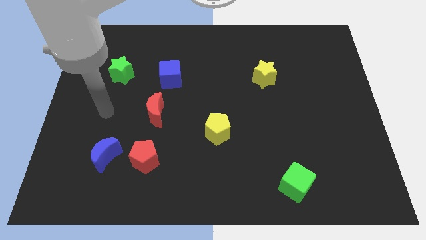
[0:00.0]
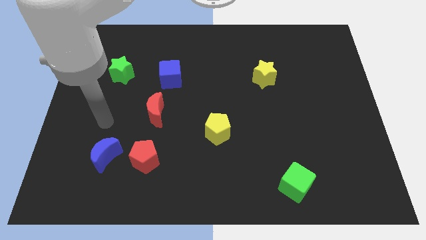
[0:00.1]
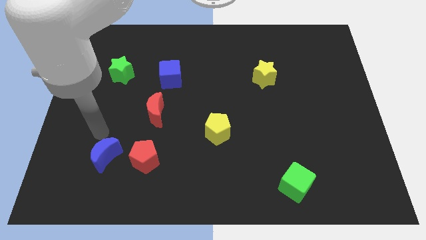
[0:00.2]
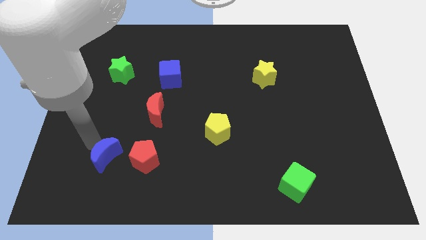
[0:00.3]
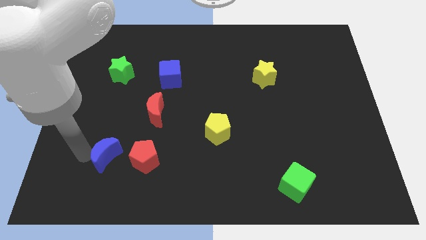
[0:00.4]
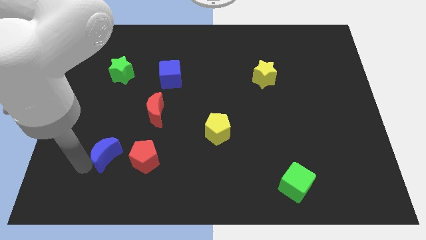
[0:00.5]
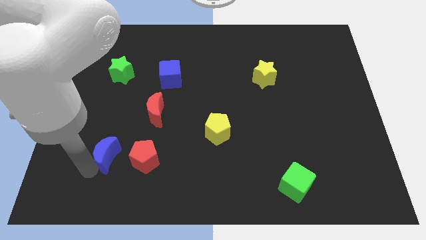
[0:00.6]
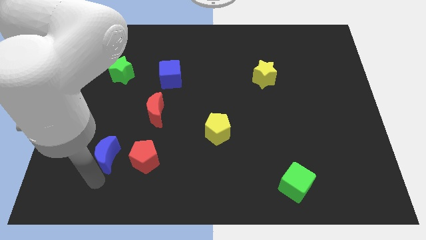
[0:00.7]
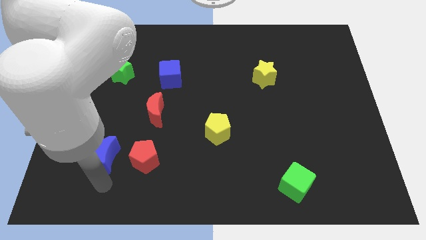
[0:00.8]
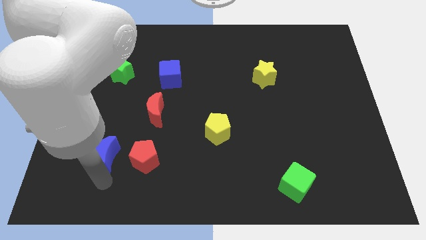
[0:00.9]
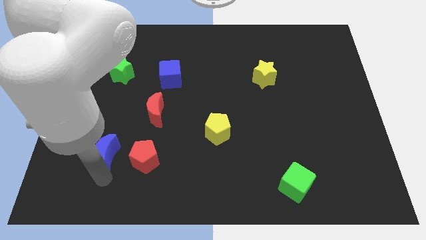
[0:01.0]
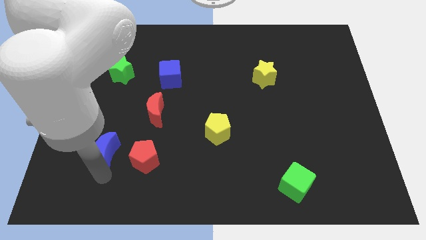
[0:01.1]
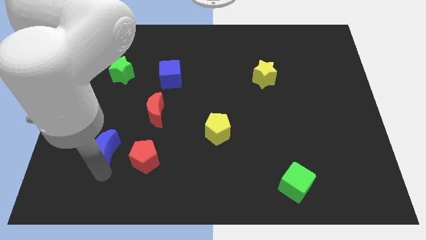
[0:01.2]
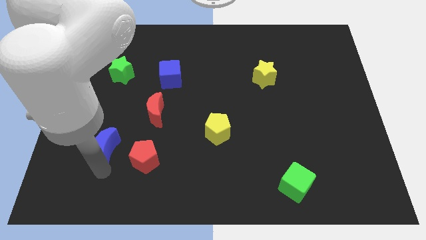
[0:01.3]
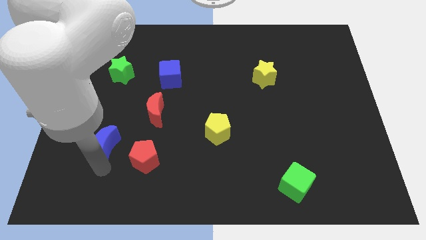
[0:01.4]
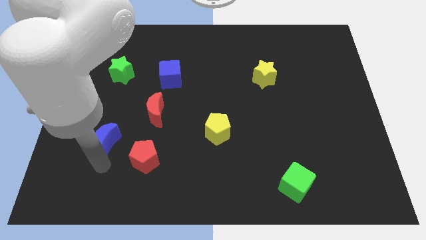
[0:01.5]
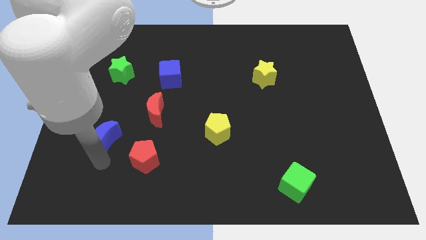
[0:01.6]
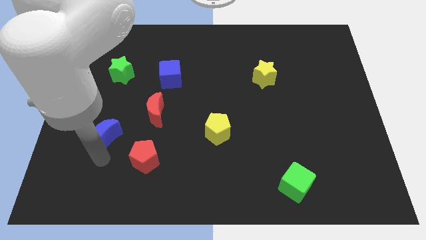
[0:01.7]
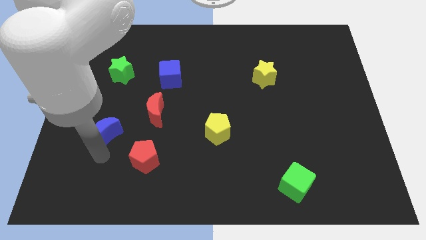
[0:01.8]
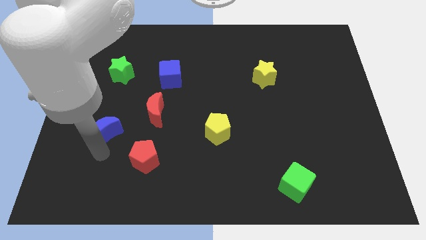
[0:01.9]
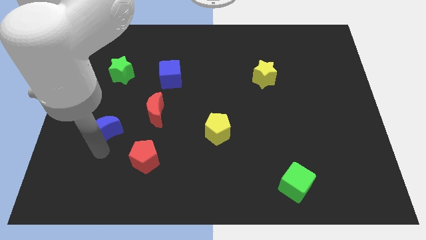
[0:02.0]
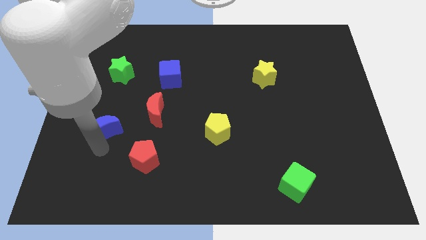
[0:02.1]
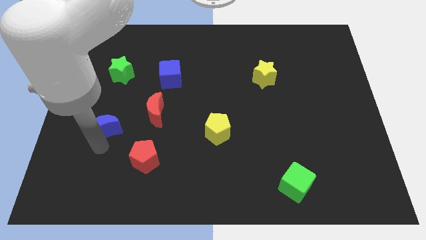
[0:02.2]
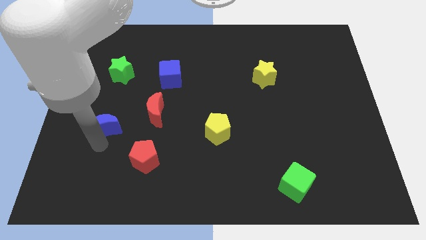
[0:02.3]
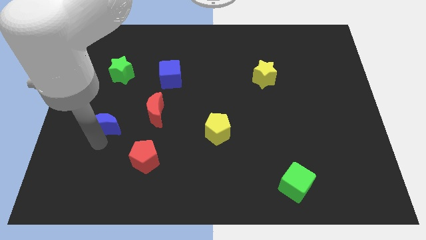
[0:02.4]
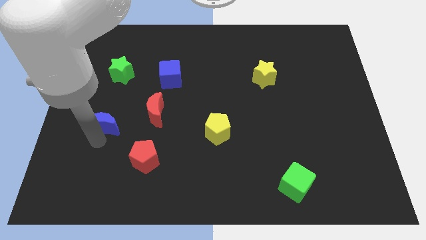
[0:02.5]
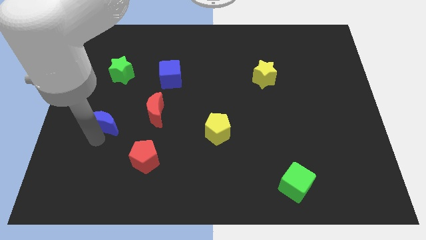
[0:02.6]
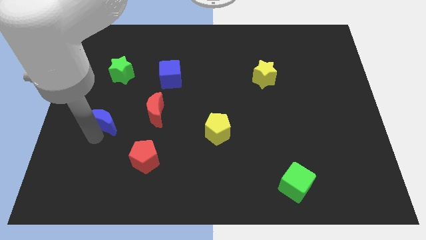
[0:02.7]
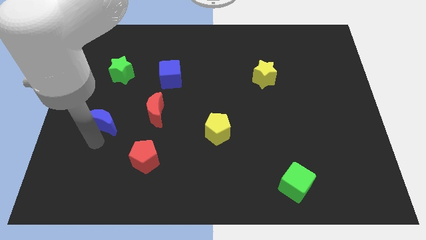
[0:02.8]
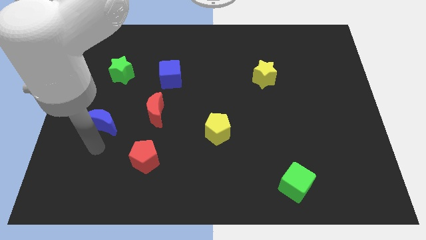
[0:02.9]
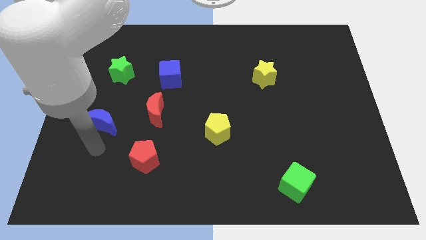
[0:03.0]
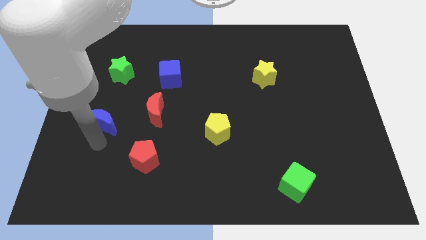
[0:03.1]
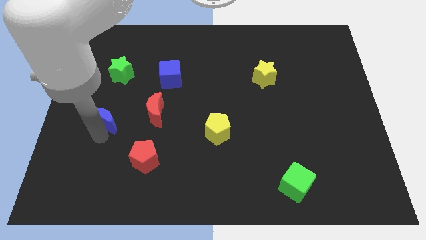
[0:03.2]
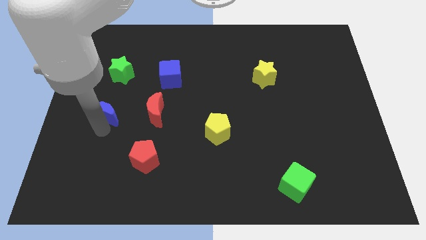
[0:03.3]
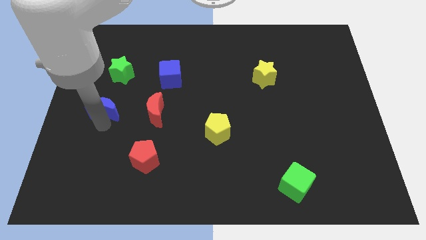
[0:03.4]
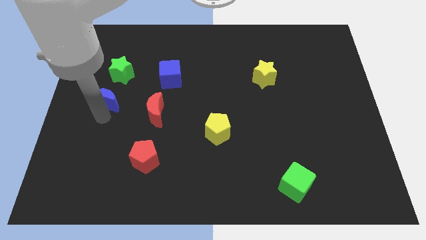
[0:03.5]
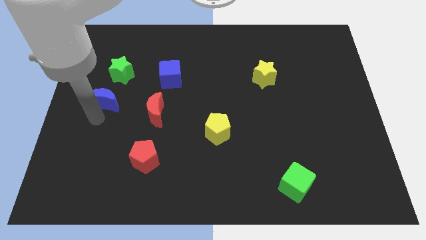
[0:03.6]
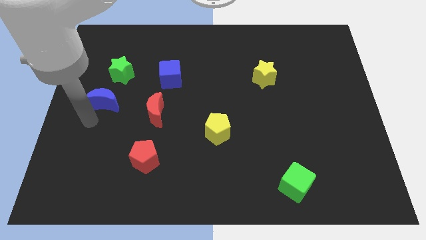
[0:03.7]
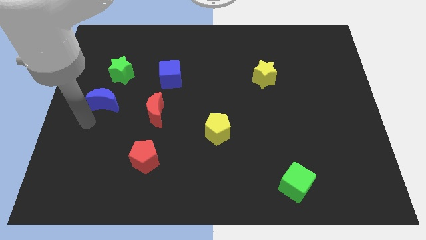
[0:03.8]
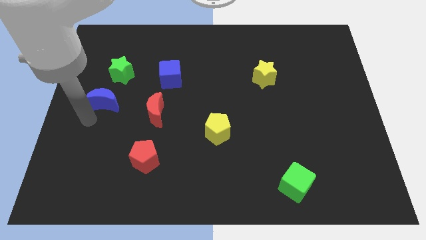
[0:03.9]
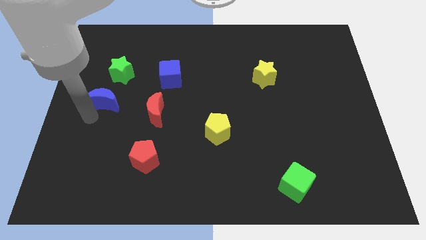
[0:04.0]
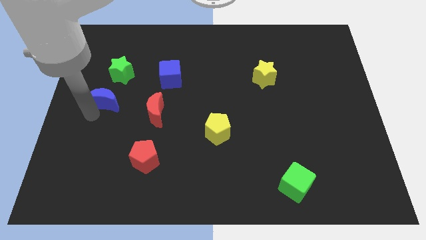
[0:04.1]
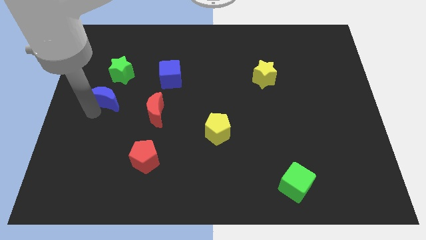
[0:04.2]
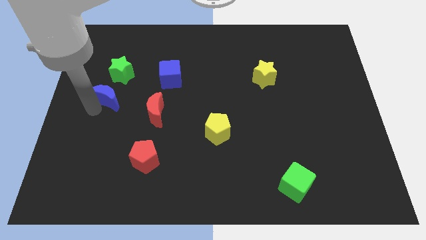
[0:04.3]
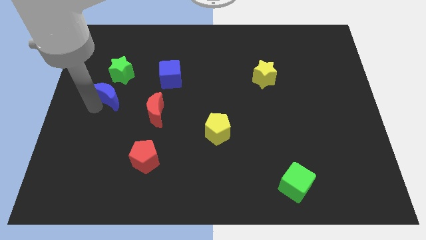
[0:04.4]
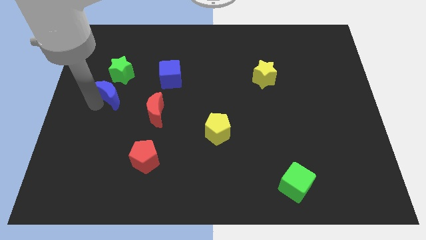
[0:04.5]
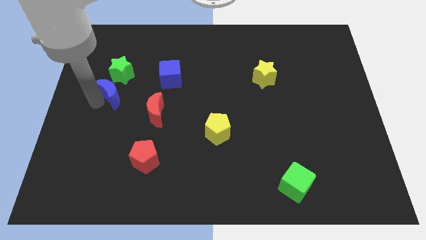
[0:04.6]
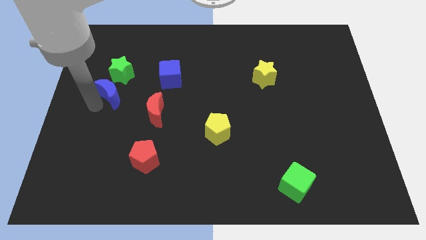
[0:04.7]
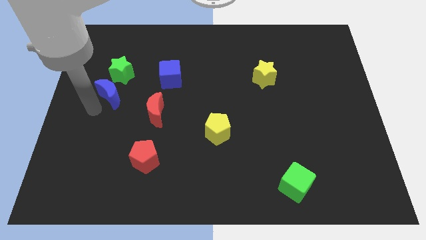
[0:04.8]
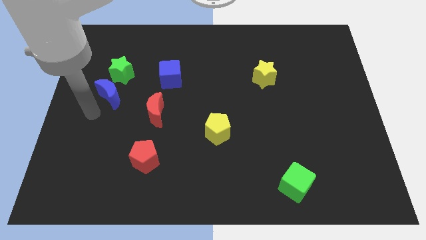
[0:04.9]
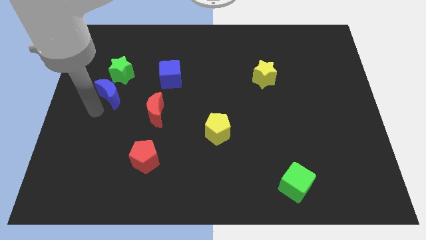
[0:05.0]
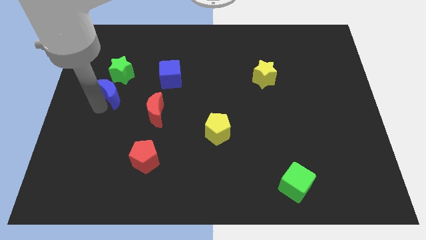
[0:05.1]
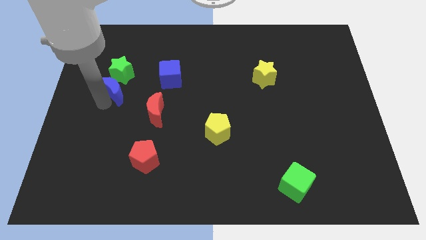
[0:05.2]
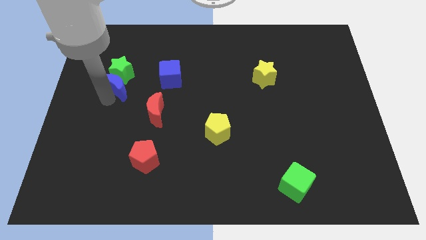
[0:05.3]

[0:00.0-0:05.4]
push the blue moon close to the green star
